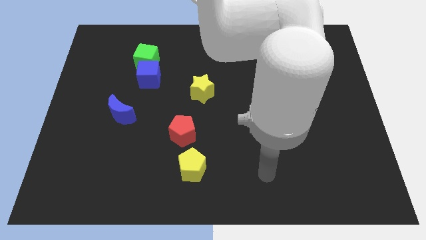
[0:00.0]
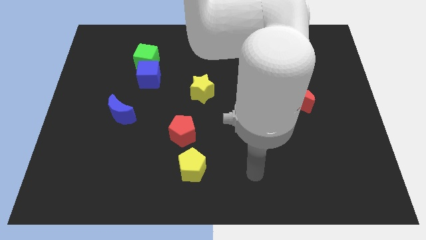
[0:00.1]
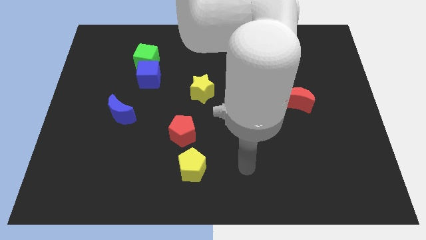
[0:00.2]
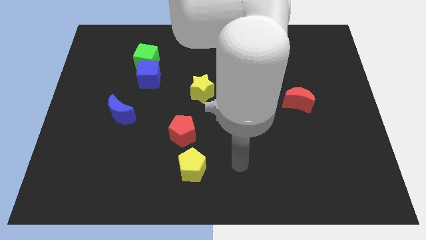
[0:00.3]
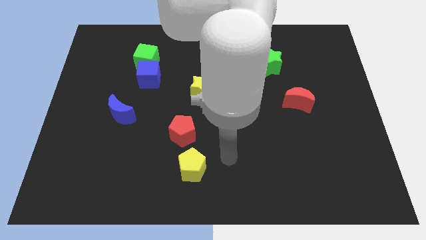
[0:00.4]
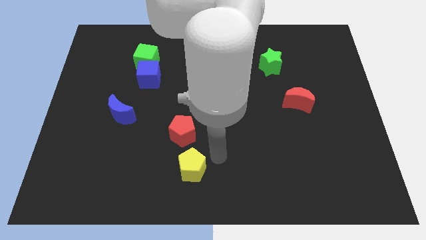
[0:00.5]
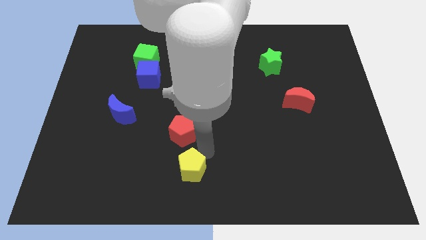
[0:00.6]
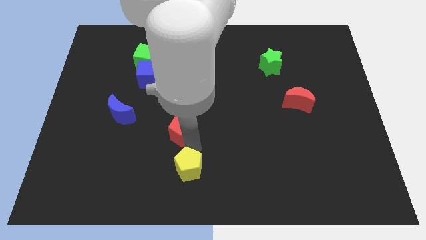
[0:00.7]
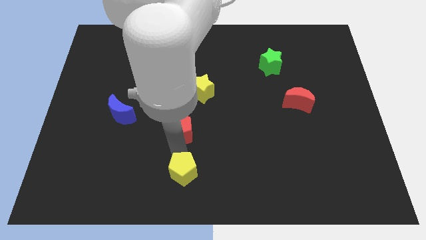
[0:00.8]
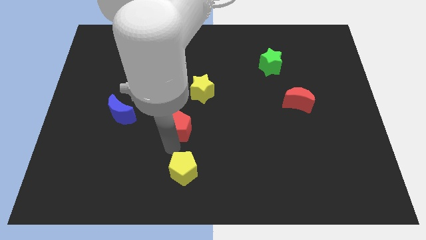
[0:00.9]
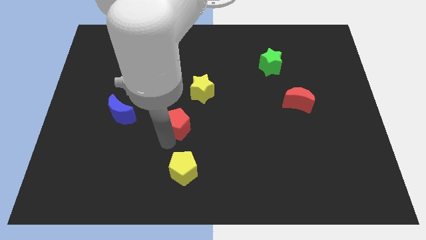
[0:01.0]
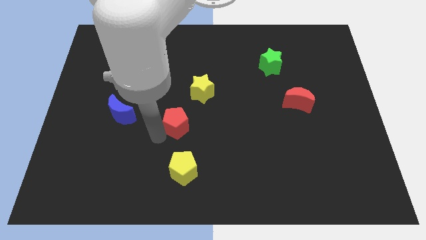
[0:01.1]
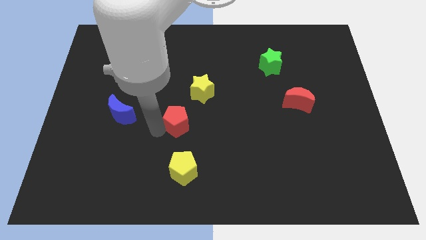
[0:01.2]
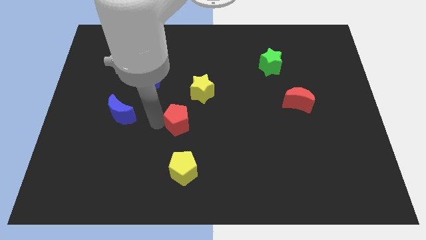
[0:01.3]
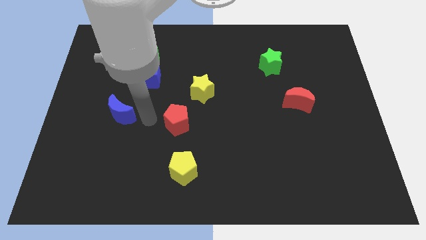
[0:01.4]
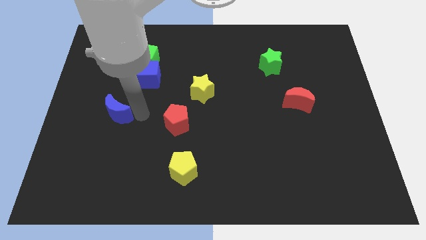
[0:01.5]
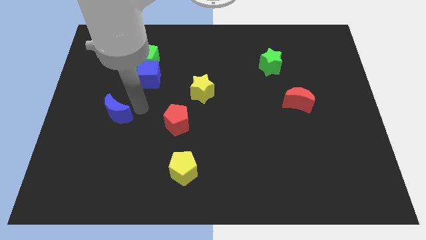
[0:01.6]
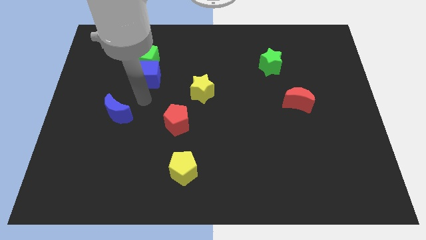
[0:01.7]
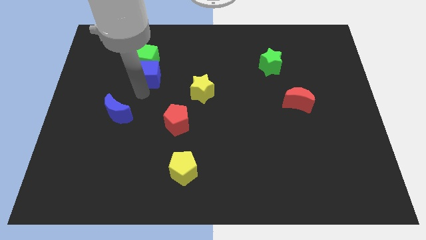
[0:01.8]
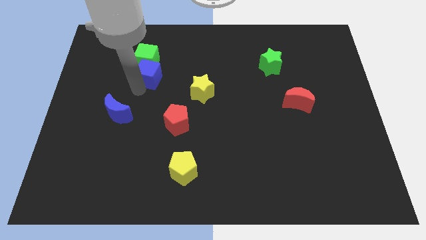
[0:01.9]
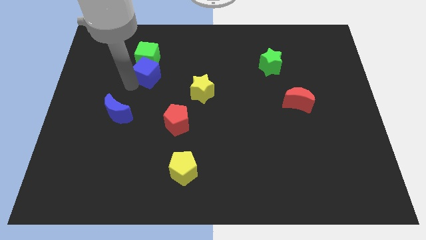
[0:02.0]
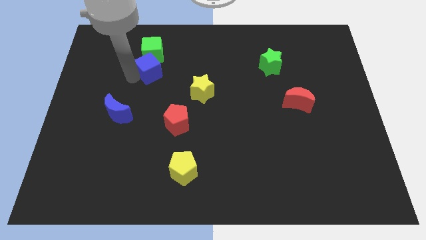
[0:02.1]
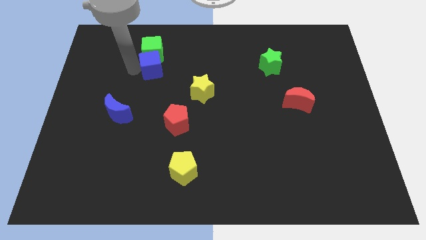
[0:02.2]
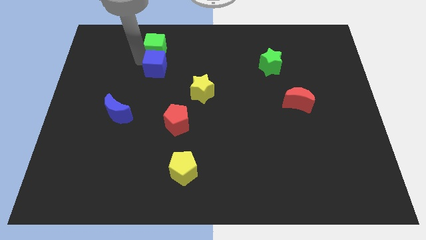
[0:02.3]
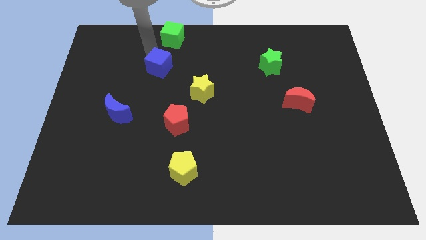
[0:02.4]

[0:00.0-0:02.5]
pull the blue cube apart from the green cube

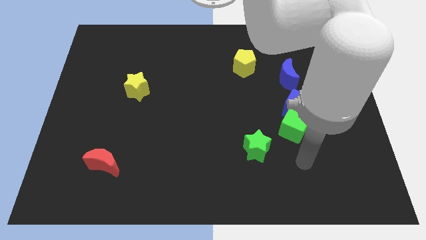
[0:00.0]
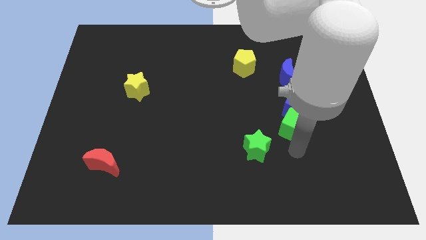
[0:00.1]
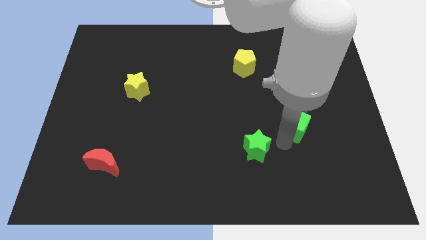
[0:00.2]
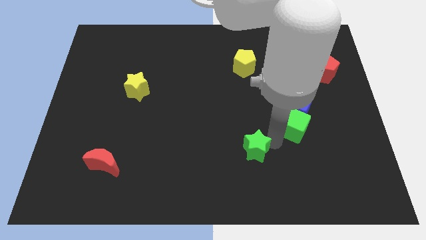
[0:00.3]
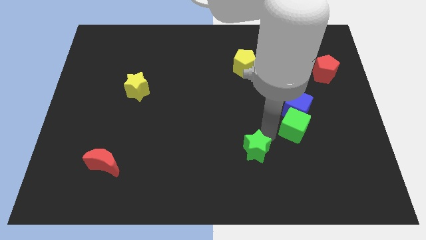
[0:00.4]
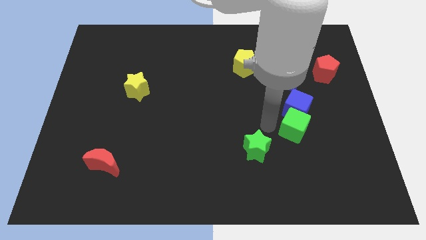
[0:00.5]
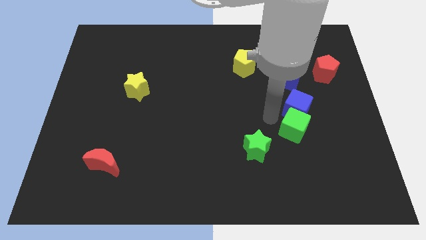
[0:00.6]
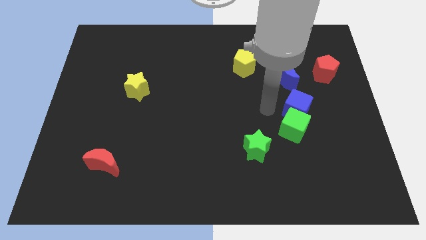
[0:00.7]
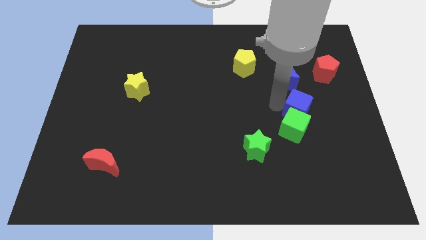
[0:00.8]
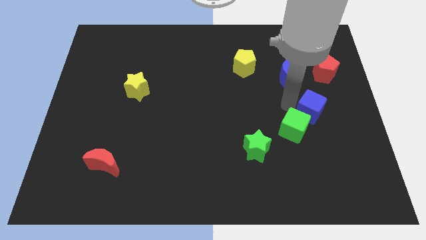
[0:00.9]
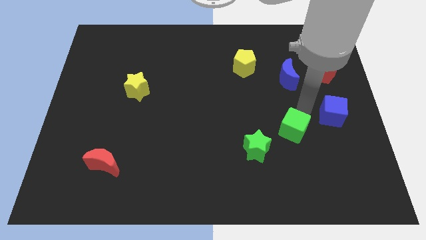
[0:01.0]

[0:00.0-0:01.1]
move the green cube away from the blue cube

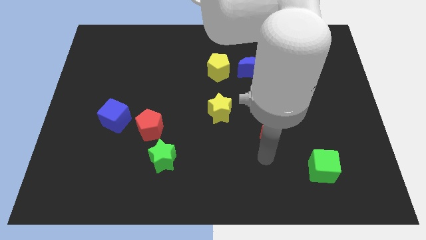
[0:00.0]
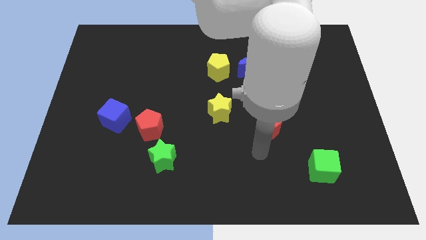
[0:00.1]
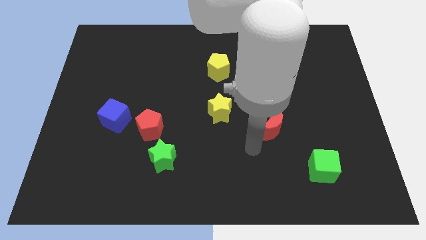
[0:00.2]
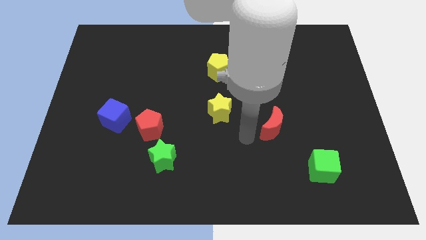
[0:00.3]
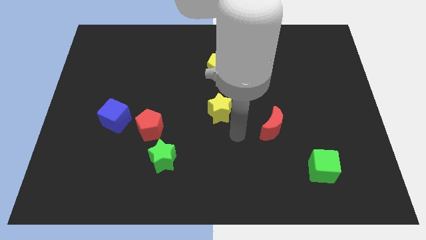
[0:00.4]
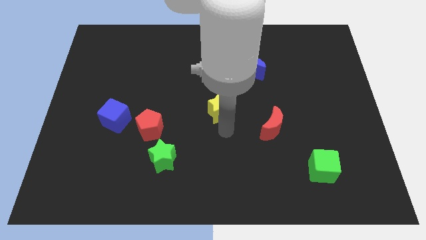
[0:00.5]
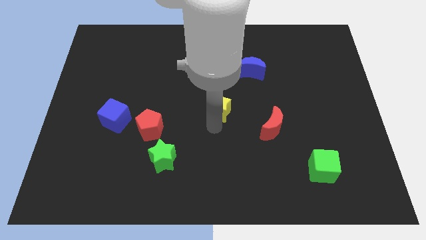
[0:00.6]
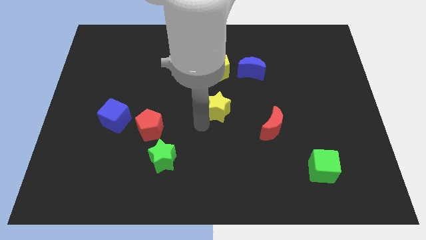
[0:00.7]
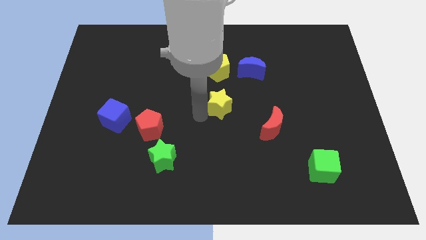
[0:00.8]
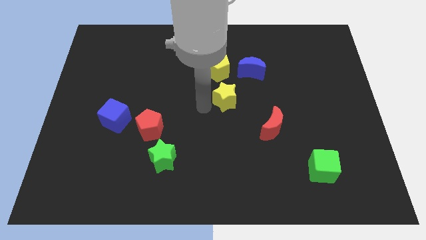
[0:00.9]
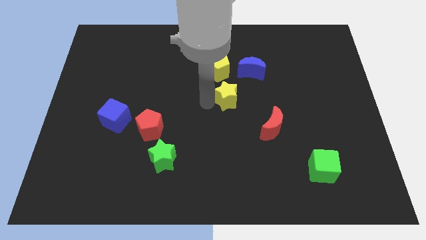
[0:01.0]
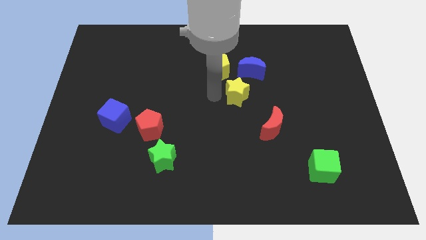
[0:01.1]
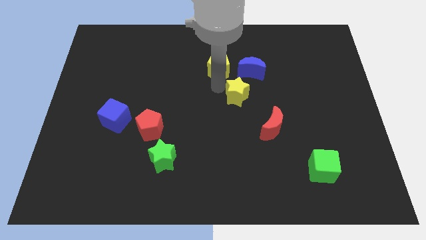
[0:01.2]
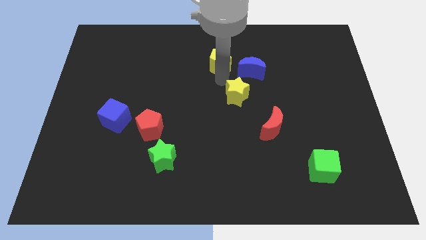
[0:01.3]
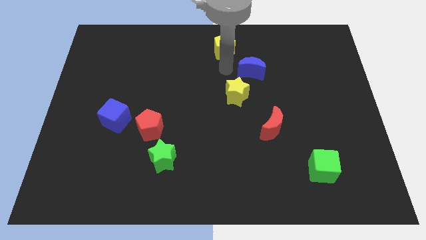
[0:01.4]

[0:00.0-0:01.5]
pull the blue moon apart from the yellow pentagon

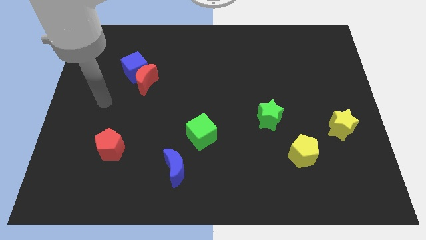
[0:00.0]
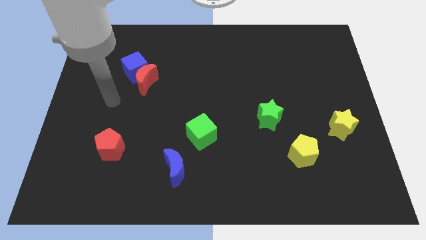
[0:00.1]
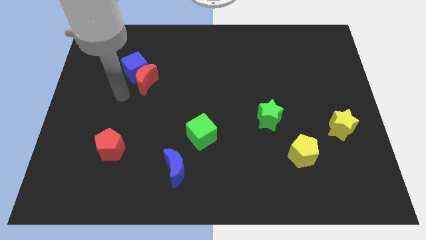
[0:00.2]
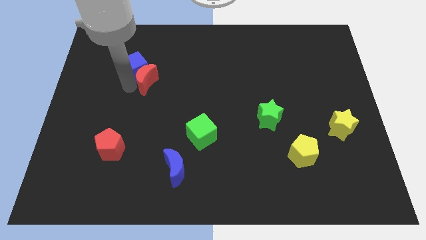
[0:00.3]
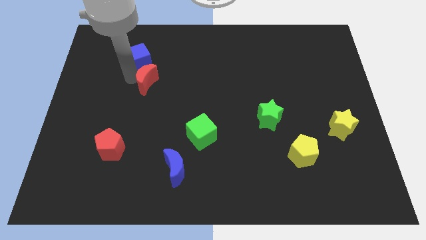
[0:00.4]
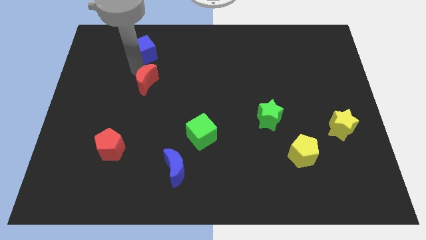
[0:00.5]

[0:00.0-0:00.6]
move the red moon away from the blue cube

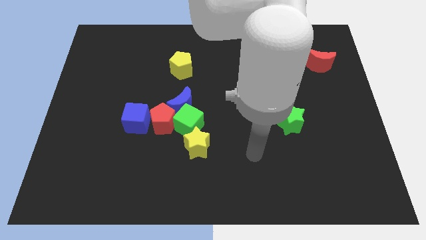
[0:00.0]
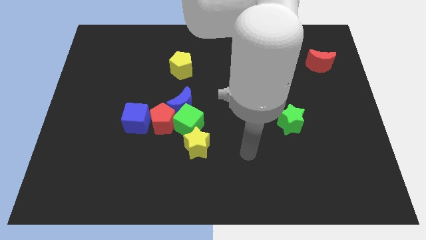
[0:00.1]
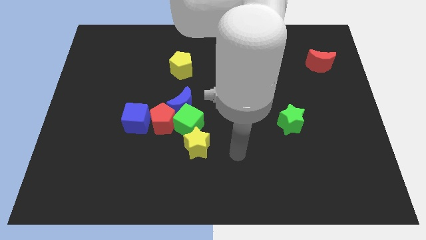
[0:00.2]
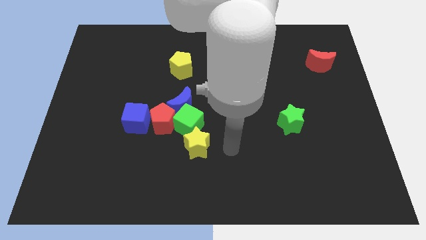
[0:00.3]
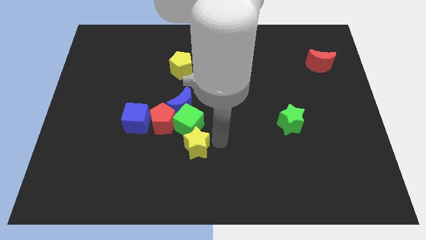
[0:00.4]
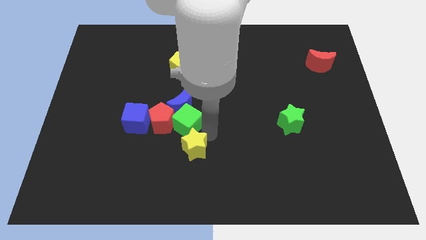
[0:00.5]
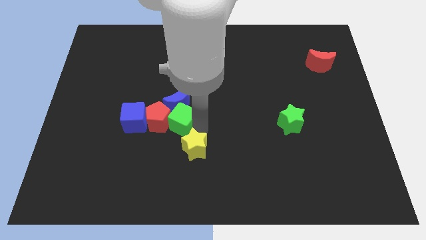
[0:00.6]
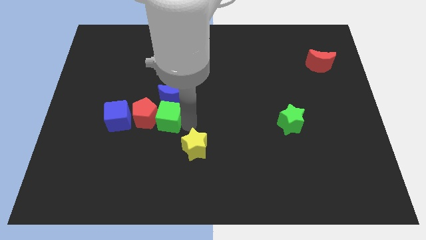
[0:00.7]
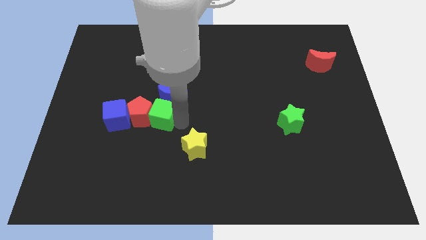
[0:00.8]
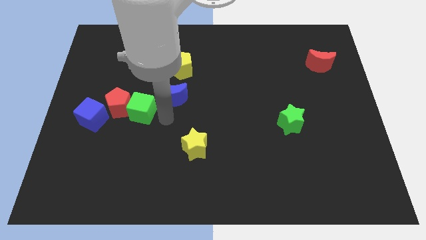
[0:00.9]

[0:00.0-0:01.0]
move the blue moon away from the green cube and red pentagon

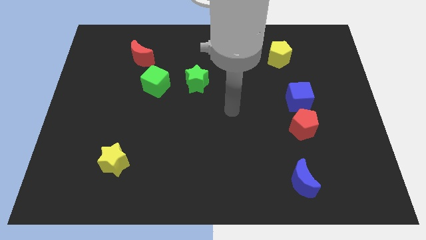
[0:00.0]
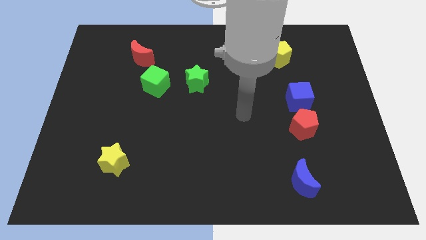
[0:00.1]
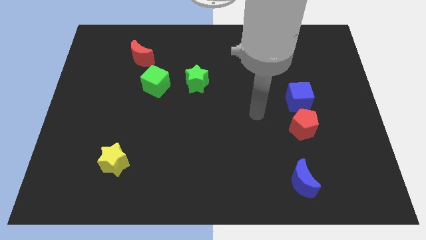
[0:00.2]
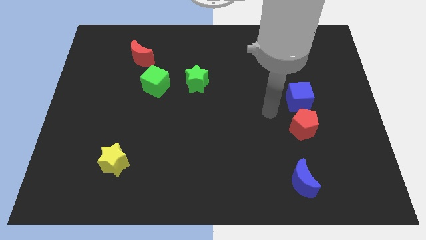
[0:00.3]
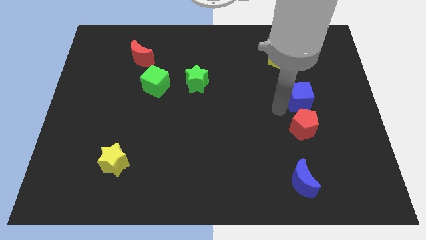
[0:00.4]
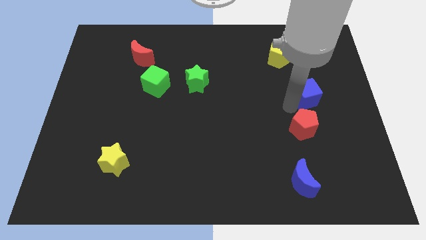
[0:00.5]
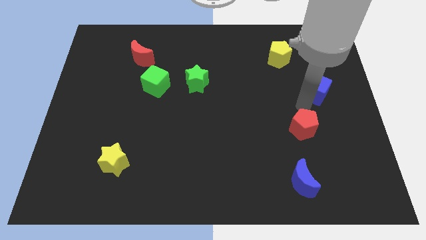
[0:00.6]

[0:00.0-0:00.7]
pull the red pentagon apart from the blue cube

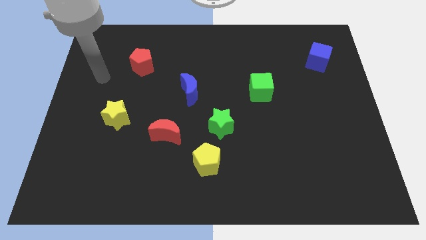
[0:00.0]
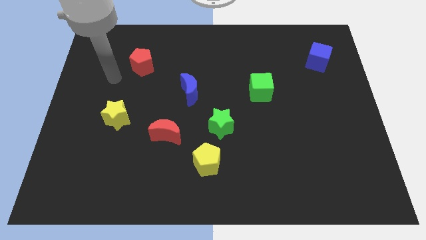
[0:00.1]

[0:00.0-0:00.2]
pull the green star apart from the yellow pentagon

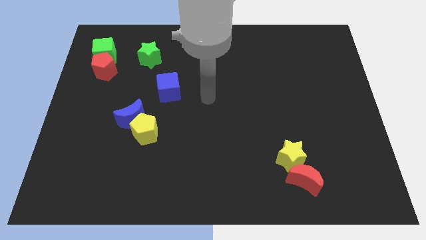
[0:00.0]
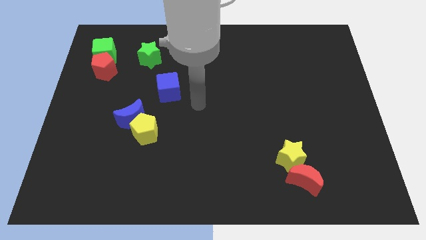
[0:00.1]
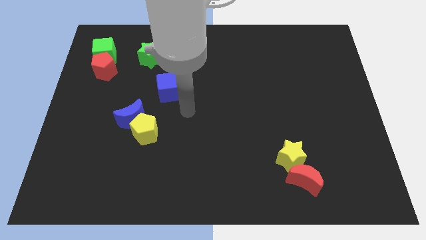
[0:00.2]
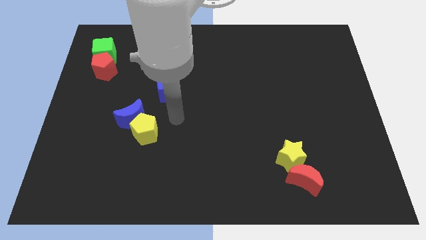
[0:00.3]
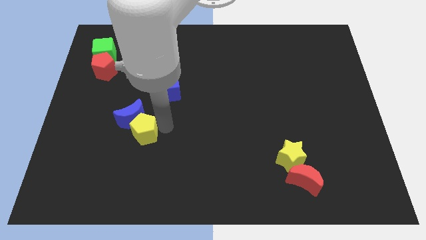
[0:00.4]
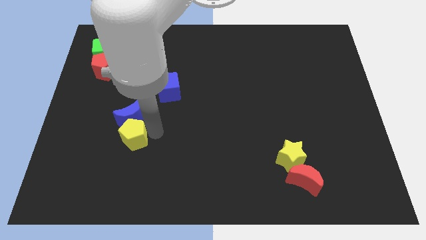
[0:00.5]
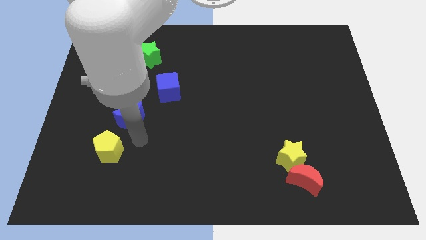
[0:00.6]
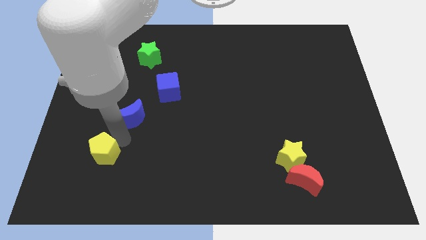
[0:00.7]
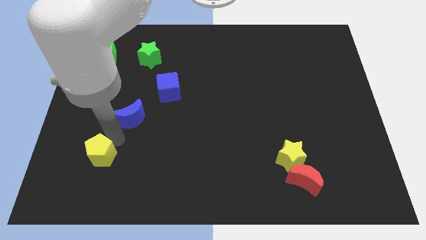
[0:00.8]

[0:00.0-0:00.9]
separate the blue moon from the yellow pentagon

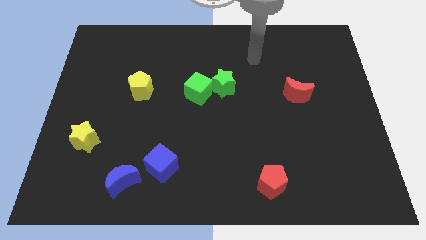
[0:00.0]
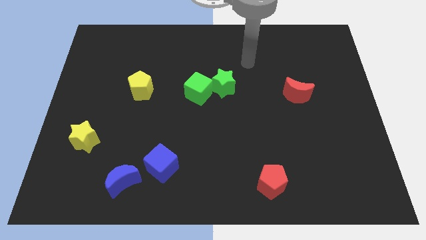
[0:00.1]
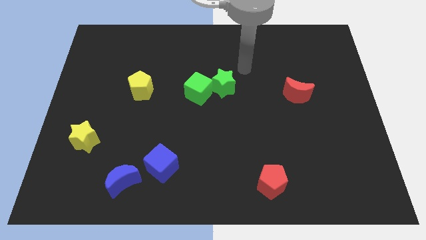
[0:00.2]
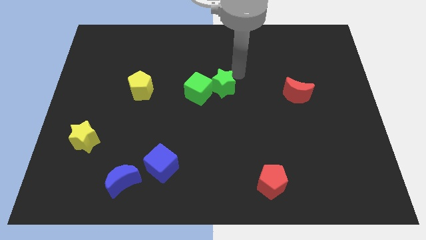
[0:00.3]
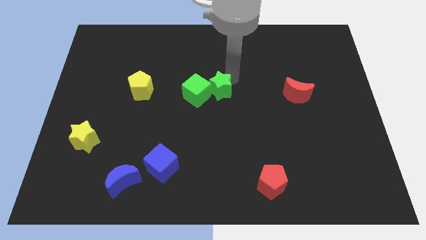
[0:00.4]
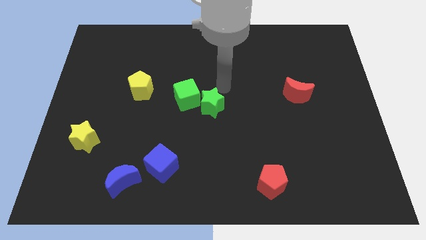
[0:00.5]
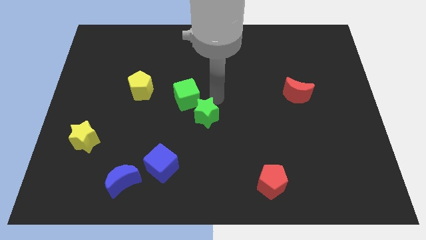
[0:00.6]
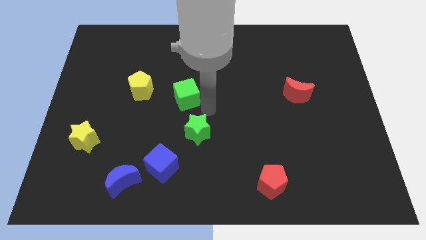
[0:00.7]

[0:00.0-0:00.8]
separate the green cube from the green star

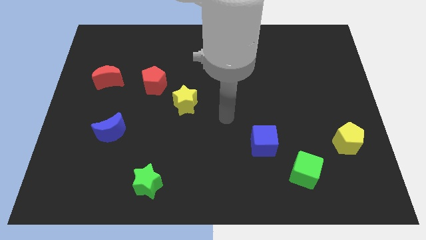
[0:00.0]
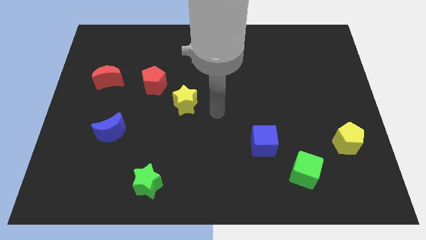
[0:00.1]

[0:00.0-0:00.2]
move the red pentagon away from the yellow star
